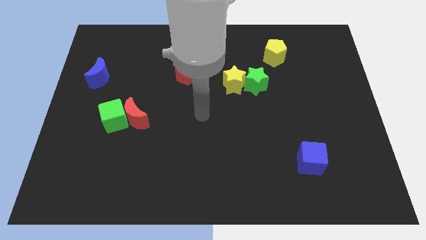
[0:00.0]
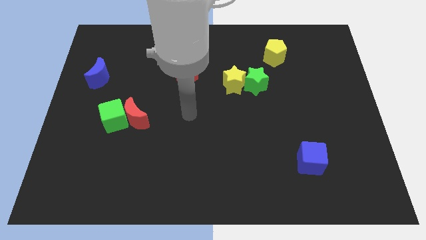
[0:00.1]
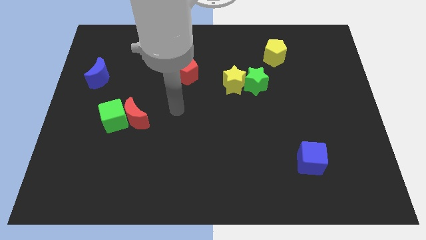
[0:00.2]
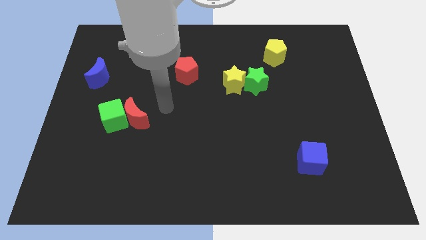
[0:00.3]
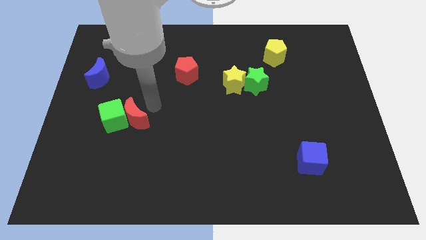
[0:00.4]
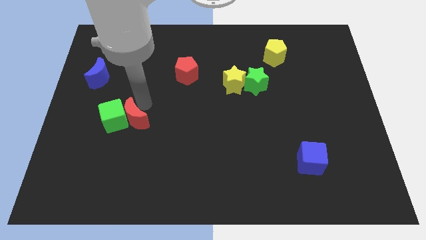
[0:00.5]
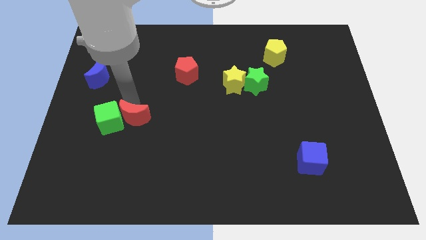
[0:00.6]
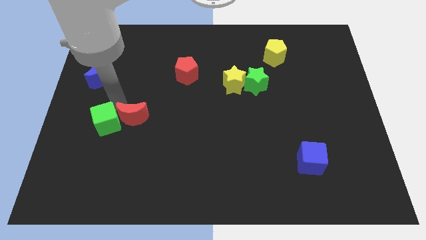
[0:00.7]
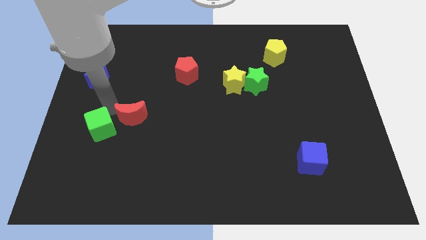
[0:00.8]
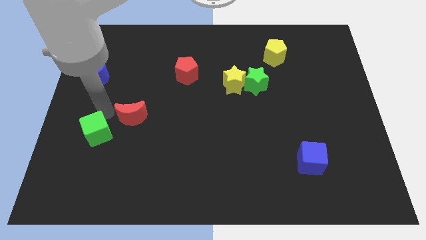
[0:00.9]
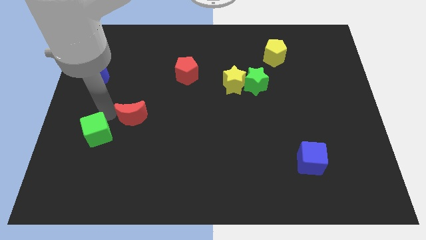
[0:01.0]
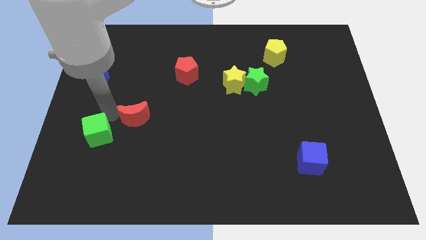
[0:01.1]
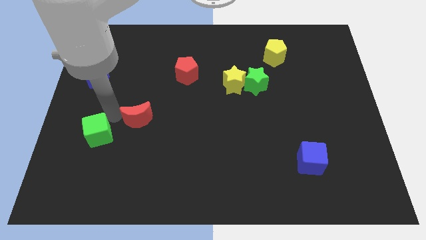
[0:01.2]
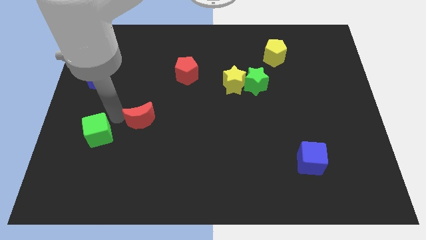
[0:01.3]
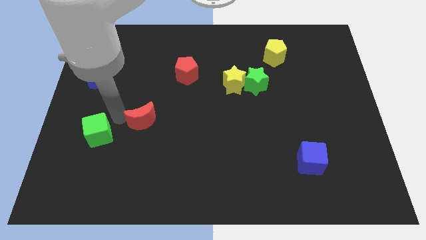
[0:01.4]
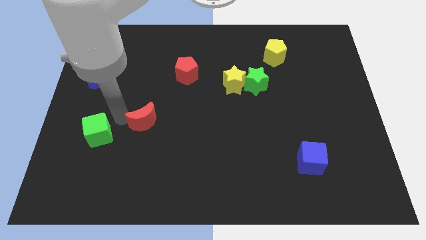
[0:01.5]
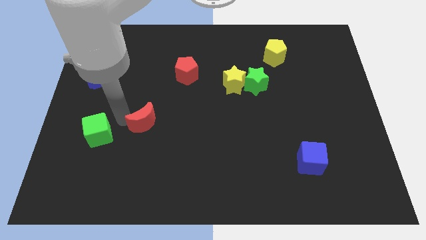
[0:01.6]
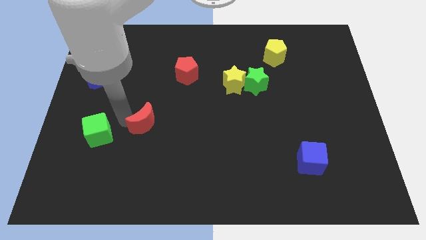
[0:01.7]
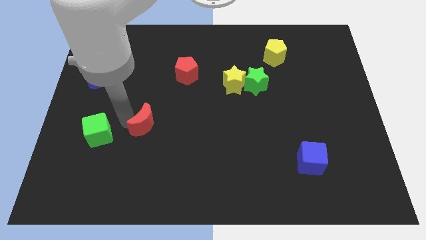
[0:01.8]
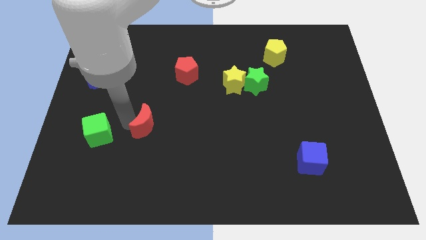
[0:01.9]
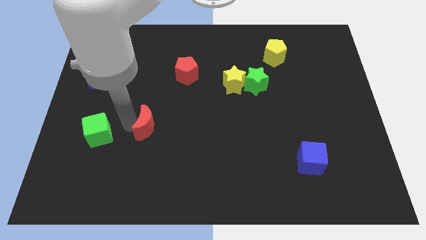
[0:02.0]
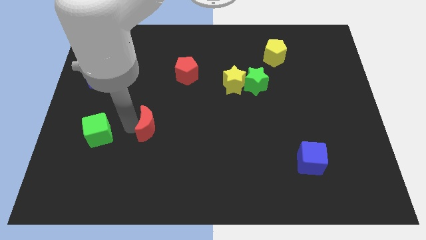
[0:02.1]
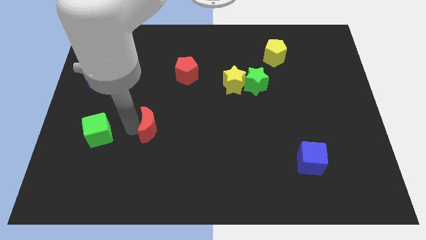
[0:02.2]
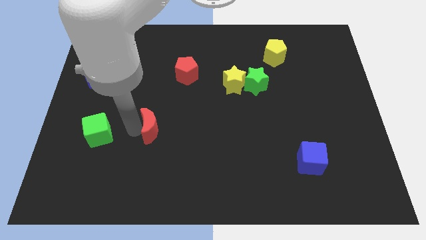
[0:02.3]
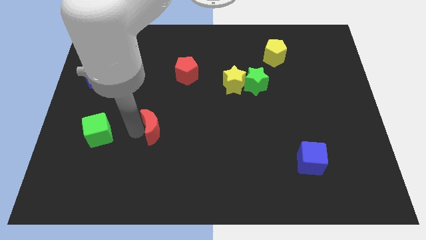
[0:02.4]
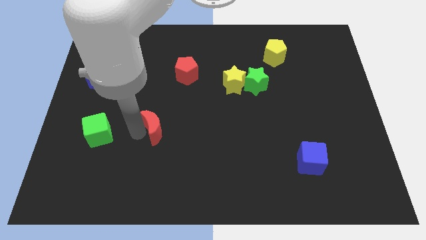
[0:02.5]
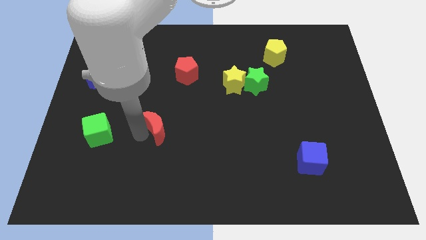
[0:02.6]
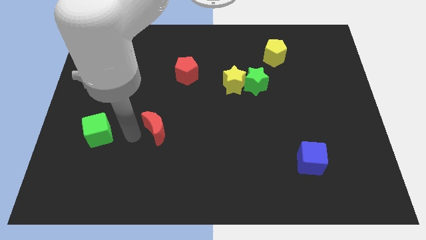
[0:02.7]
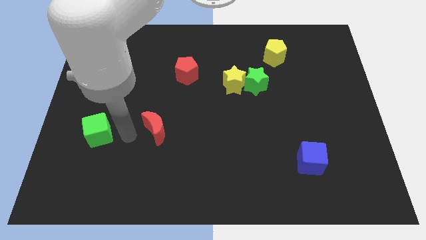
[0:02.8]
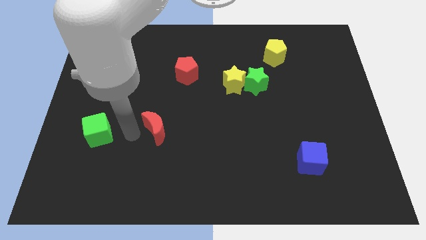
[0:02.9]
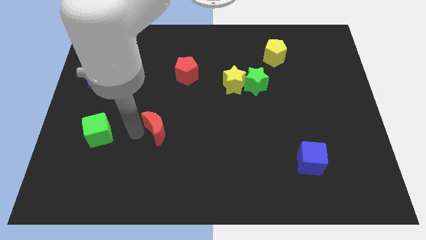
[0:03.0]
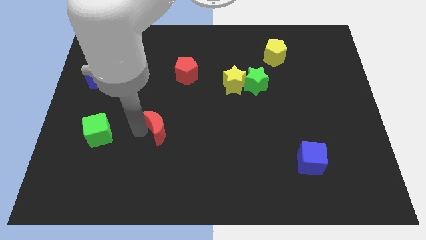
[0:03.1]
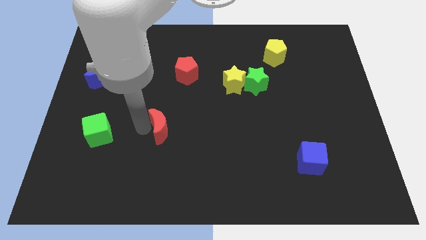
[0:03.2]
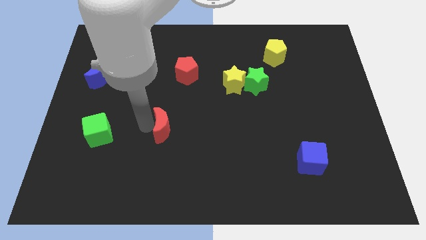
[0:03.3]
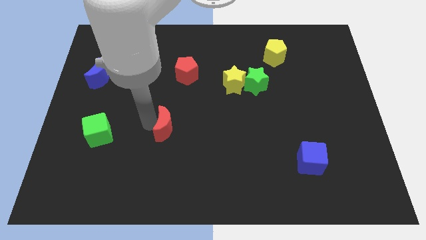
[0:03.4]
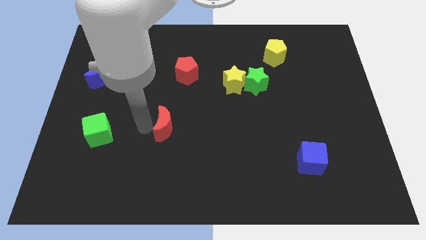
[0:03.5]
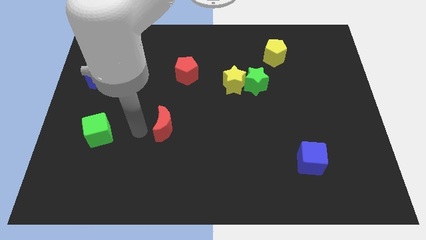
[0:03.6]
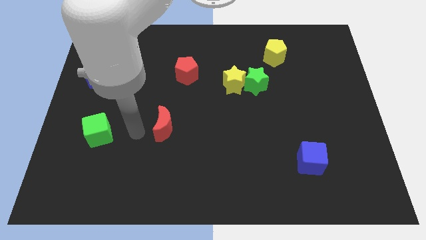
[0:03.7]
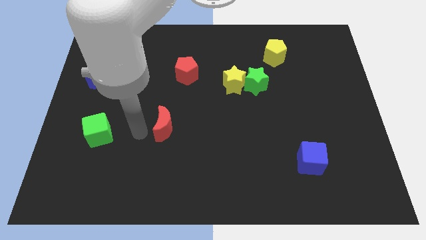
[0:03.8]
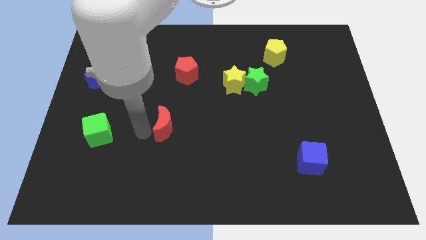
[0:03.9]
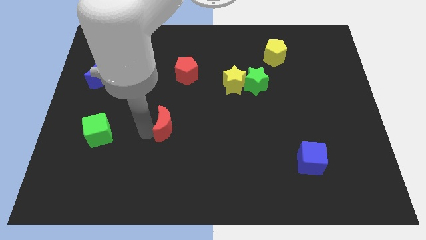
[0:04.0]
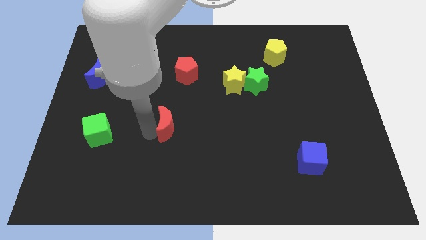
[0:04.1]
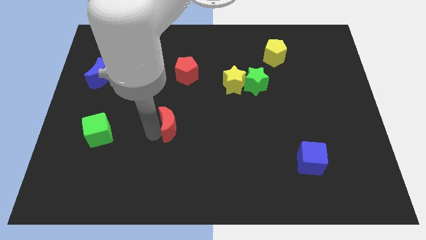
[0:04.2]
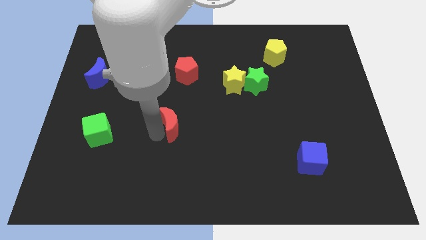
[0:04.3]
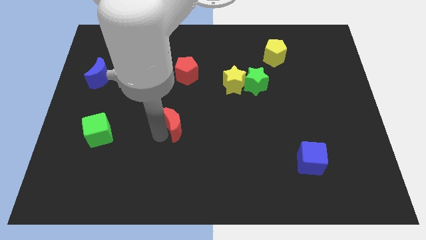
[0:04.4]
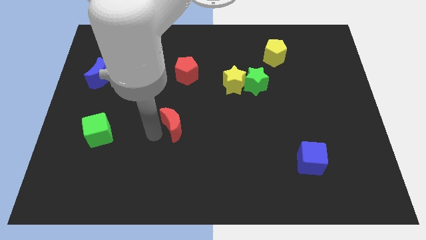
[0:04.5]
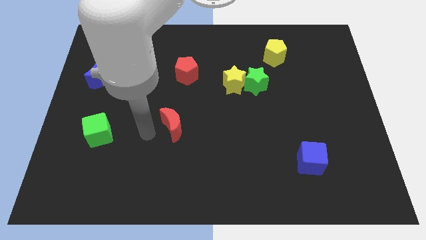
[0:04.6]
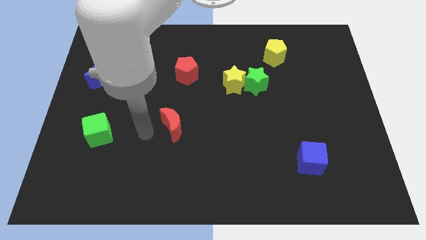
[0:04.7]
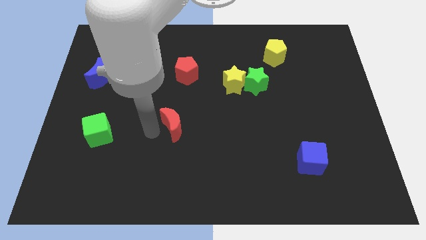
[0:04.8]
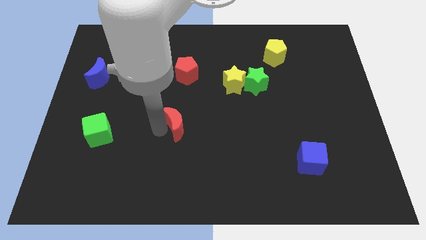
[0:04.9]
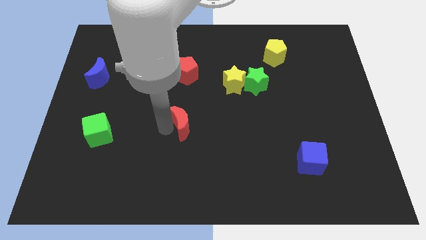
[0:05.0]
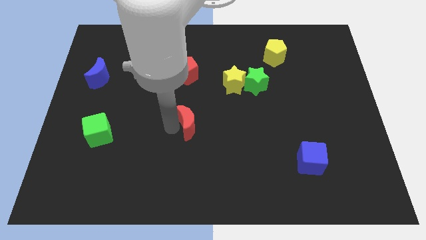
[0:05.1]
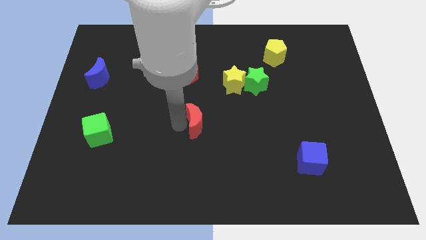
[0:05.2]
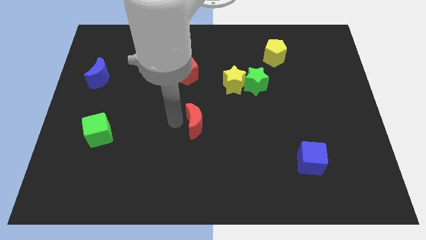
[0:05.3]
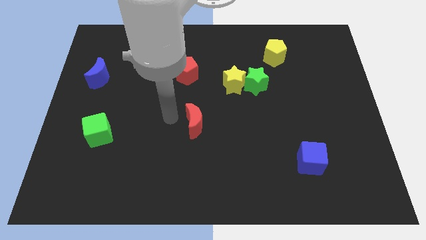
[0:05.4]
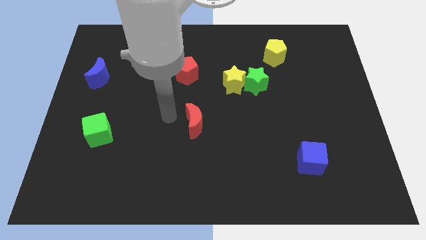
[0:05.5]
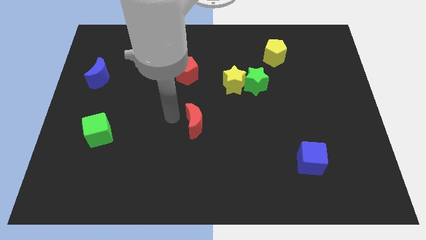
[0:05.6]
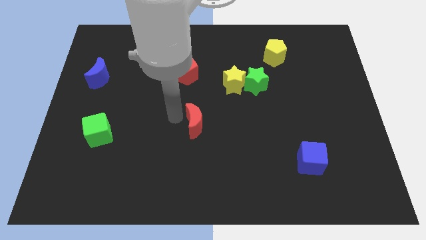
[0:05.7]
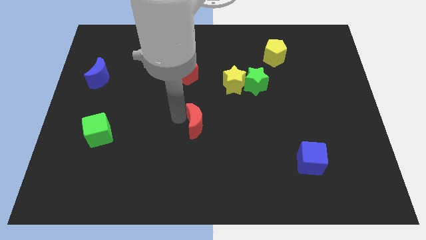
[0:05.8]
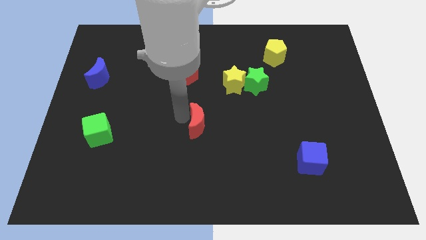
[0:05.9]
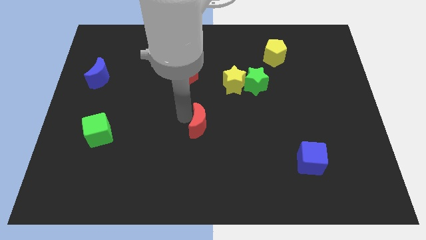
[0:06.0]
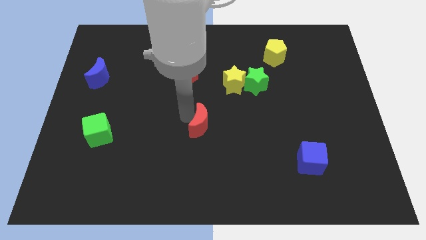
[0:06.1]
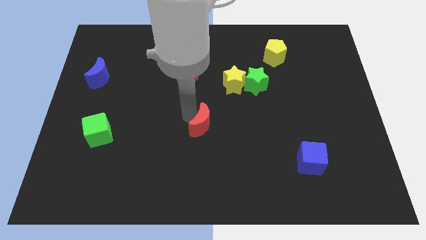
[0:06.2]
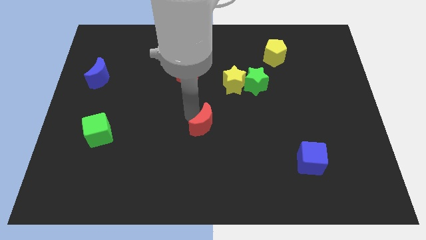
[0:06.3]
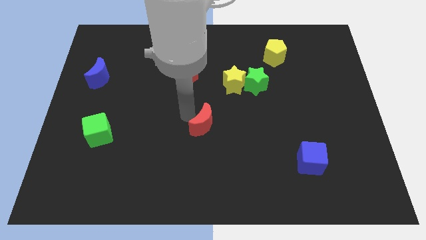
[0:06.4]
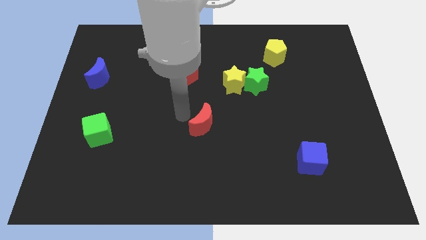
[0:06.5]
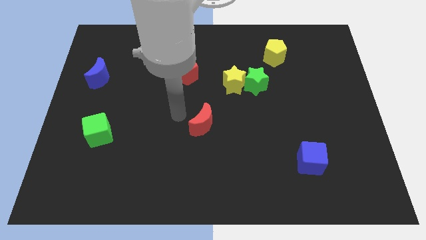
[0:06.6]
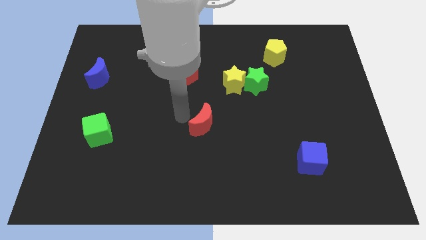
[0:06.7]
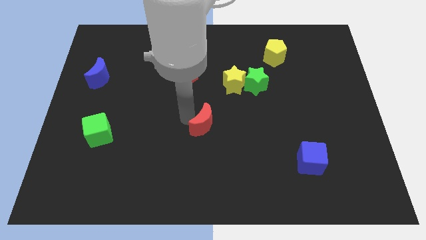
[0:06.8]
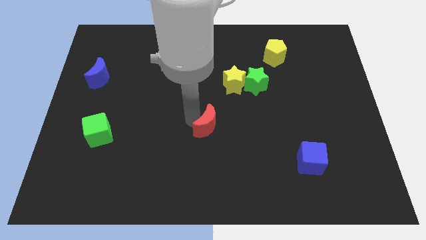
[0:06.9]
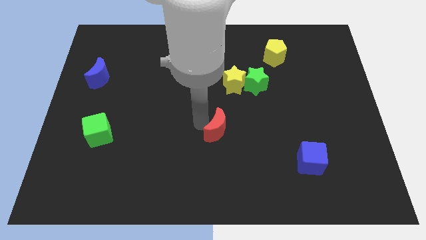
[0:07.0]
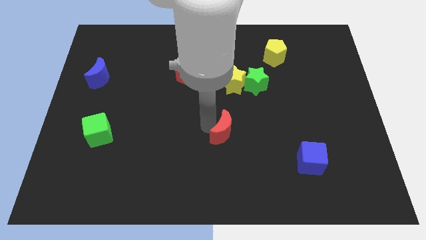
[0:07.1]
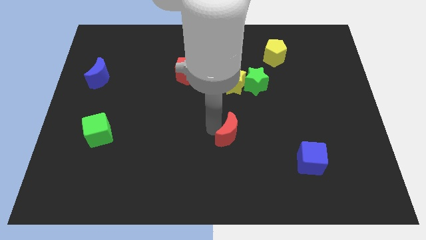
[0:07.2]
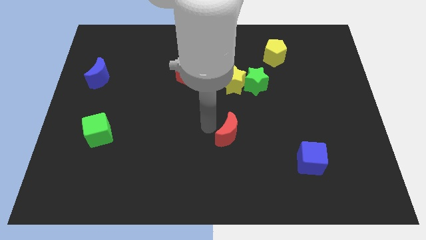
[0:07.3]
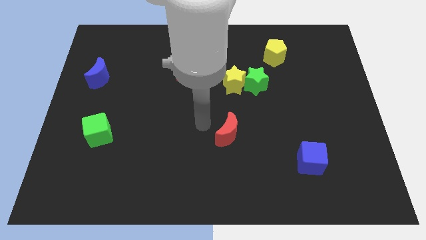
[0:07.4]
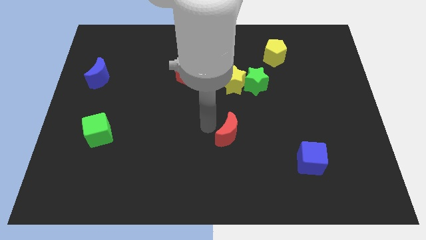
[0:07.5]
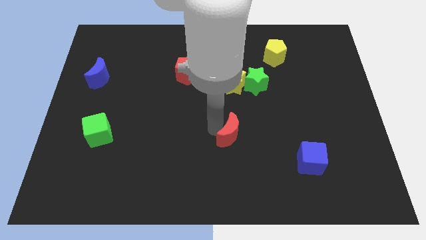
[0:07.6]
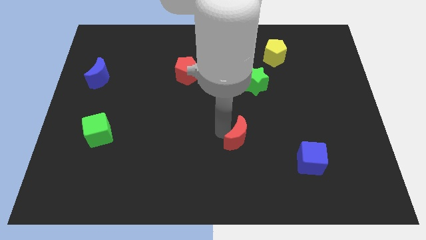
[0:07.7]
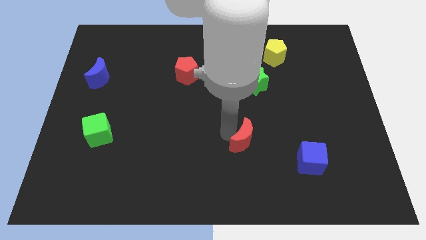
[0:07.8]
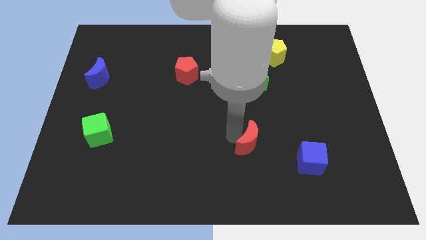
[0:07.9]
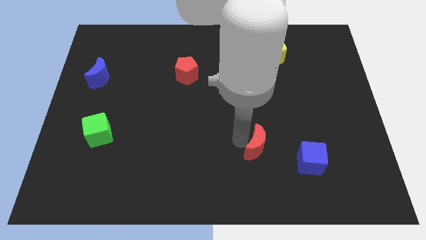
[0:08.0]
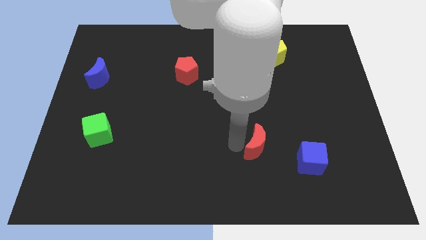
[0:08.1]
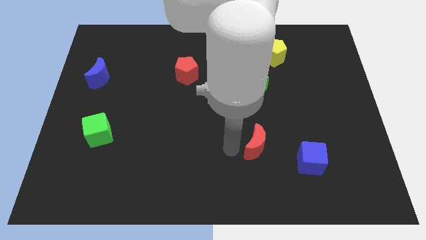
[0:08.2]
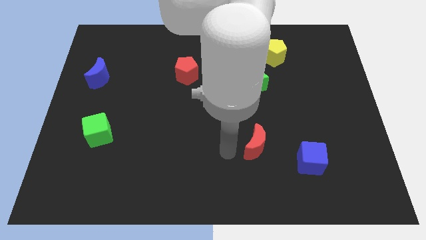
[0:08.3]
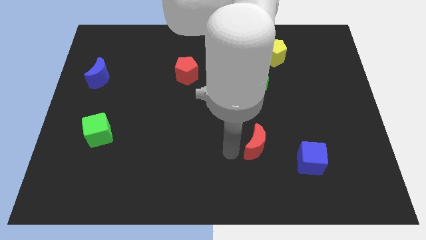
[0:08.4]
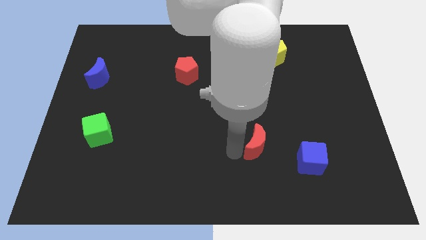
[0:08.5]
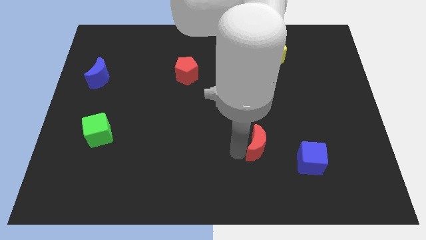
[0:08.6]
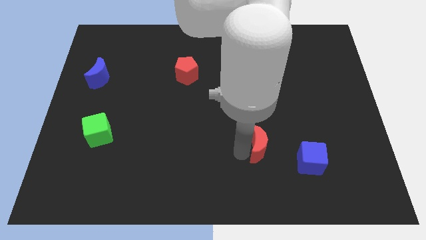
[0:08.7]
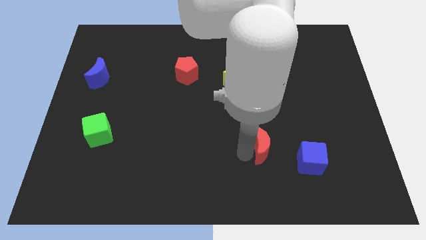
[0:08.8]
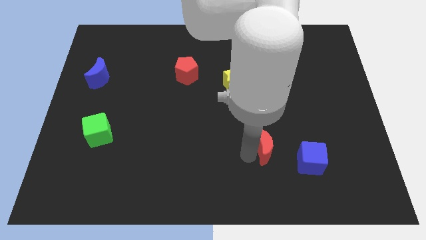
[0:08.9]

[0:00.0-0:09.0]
move the red moon to the top left side of the blue cube
